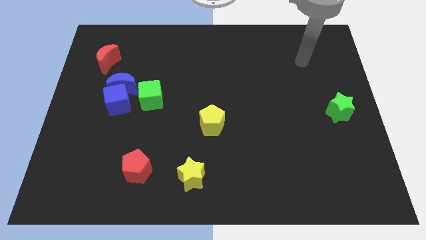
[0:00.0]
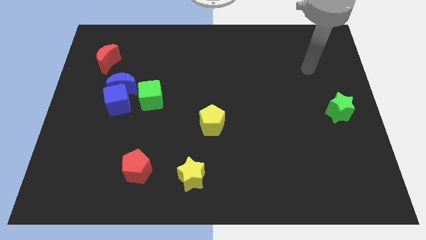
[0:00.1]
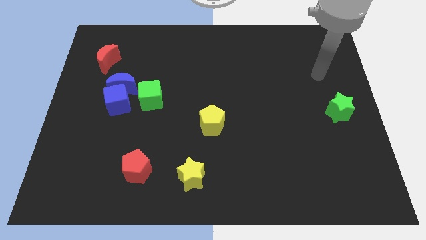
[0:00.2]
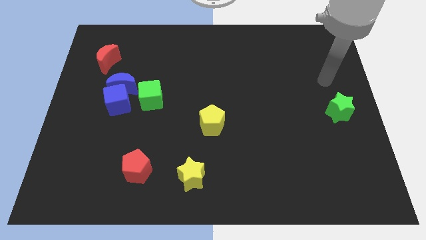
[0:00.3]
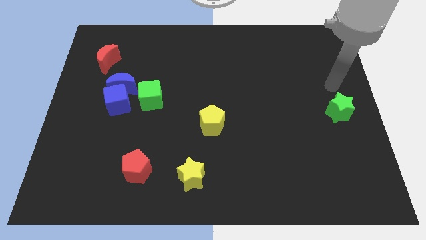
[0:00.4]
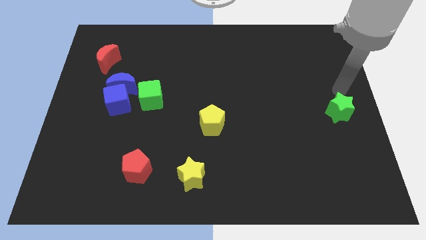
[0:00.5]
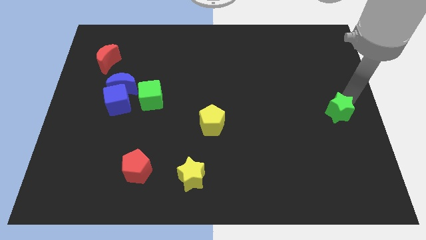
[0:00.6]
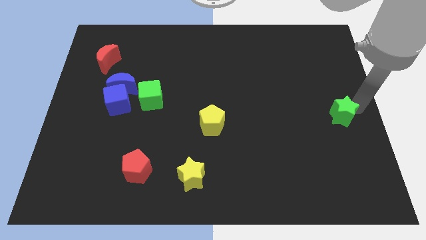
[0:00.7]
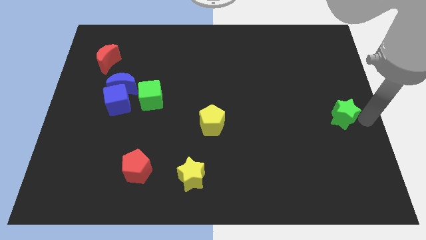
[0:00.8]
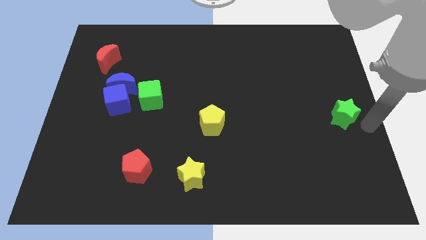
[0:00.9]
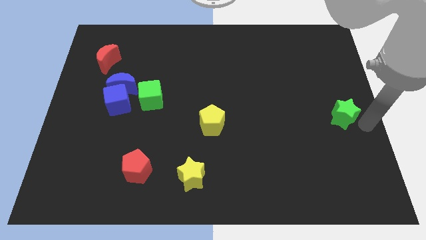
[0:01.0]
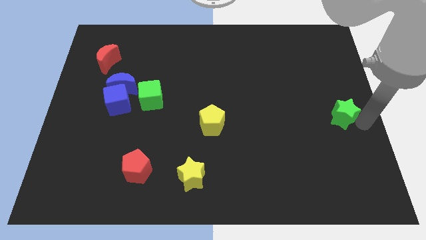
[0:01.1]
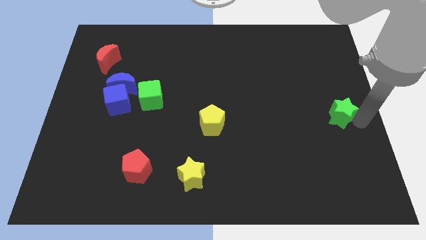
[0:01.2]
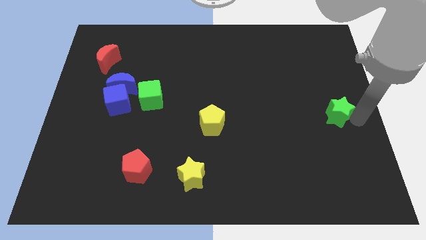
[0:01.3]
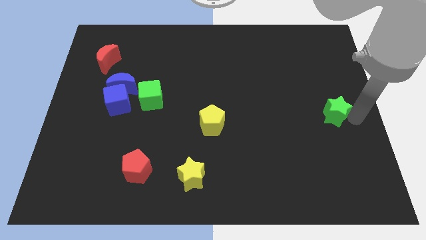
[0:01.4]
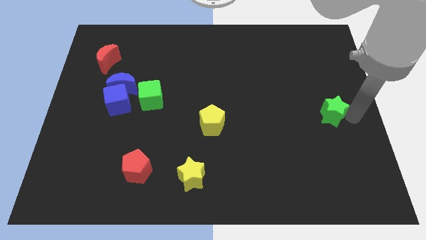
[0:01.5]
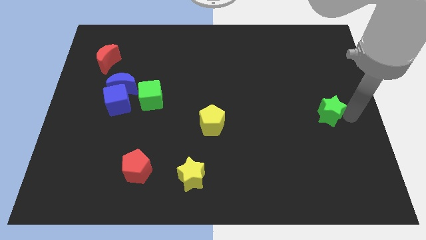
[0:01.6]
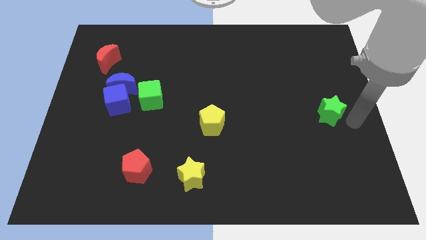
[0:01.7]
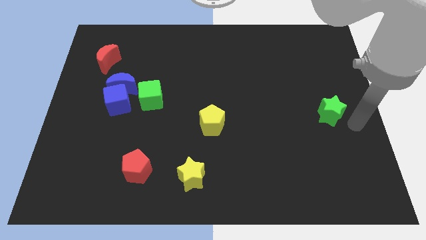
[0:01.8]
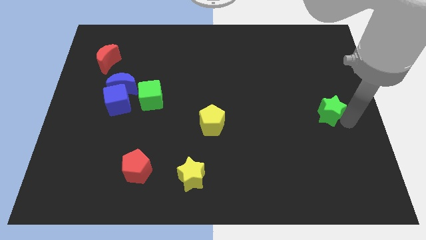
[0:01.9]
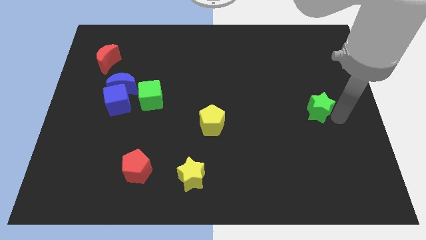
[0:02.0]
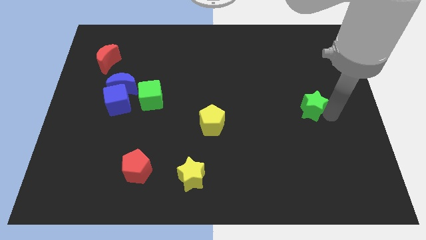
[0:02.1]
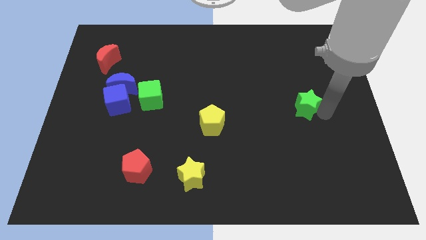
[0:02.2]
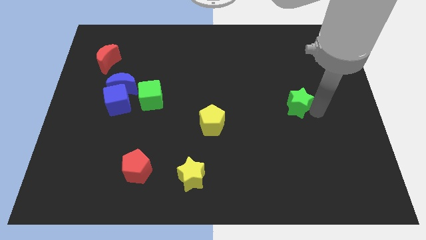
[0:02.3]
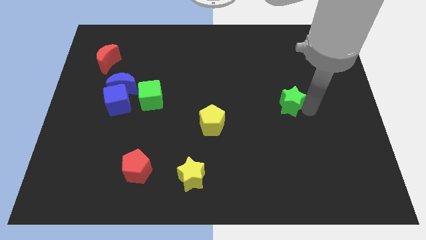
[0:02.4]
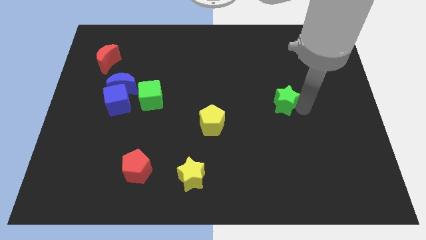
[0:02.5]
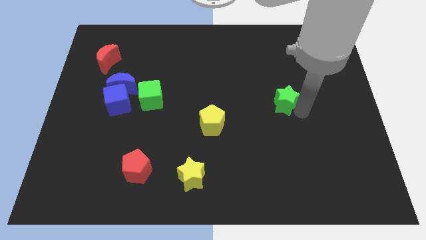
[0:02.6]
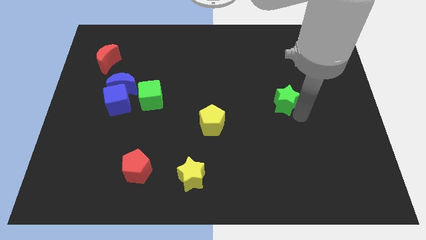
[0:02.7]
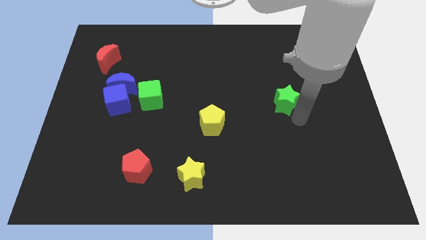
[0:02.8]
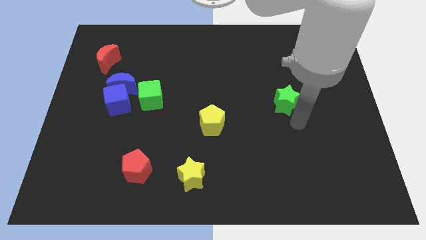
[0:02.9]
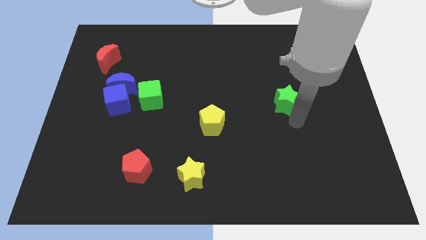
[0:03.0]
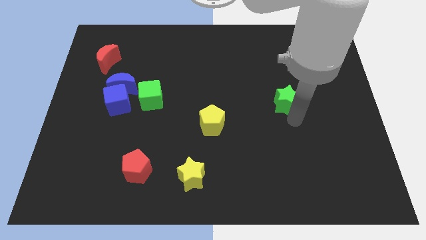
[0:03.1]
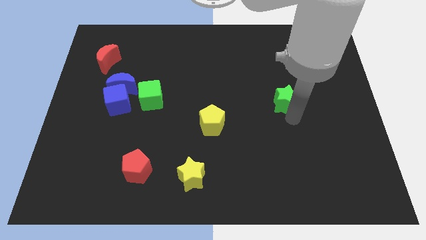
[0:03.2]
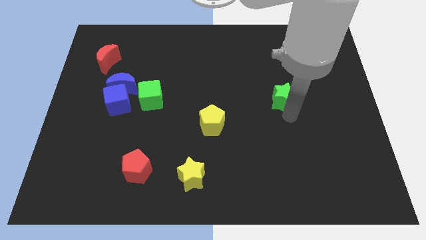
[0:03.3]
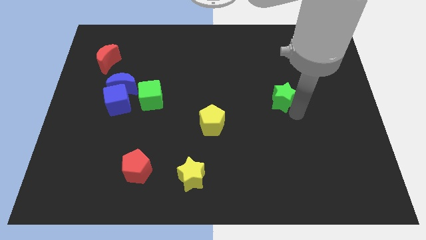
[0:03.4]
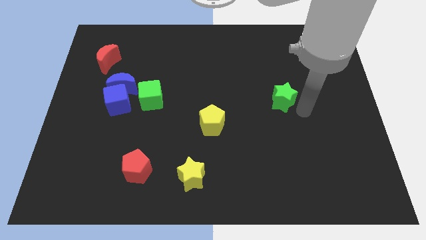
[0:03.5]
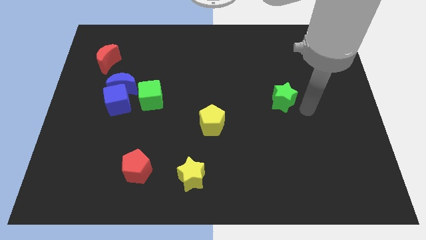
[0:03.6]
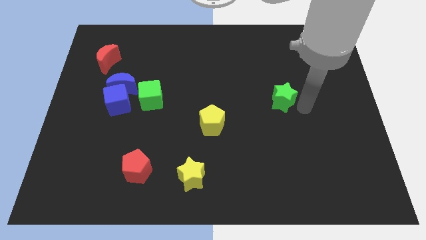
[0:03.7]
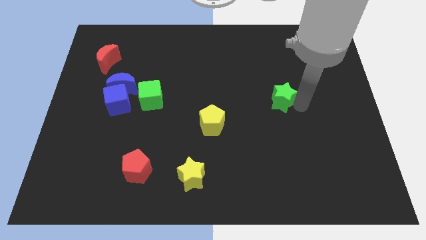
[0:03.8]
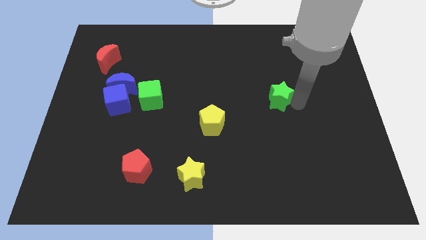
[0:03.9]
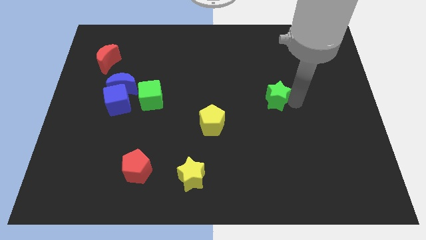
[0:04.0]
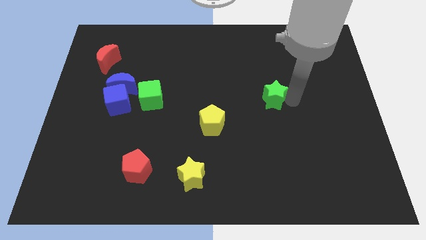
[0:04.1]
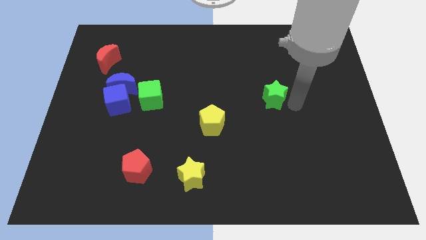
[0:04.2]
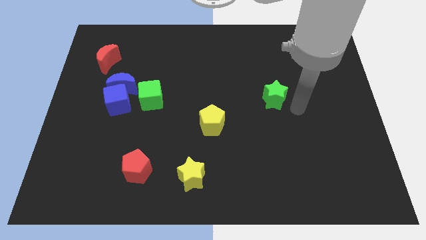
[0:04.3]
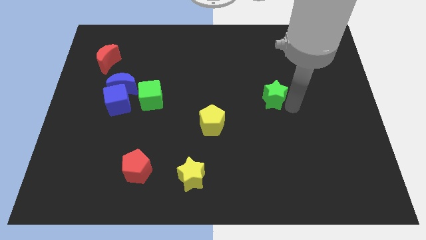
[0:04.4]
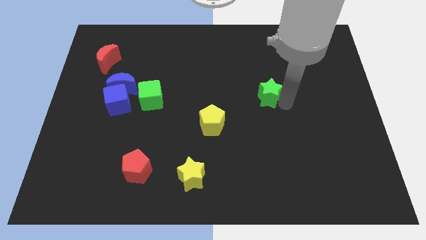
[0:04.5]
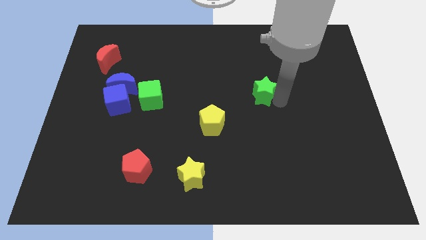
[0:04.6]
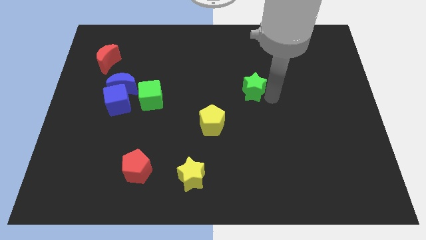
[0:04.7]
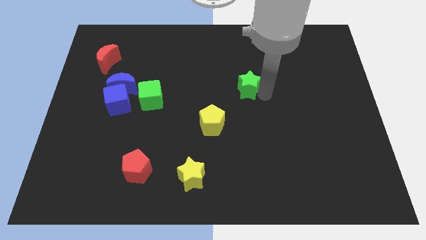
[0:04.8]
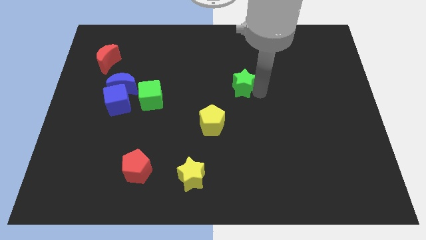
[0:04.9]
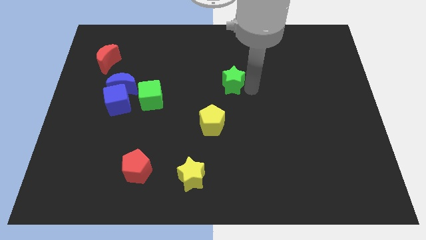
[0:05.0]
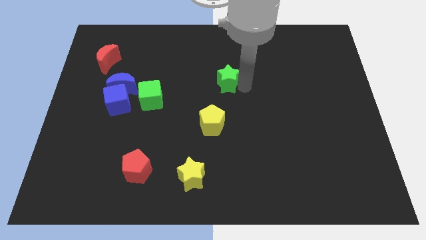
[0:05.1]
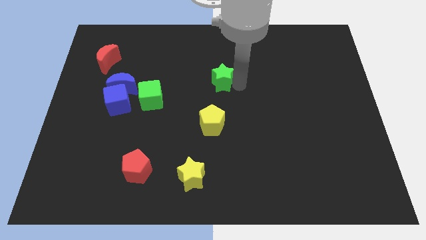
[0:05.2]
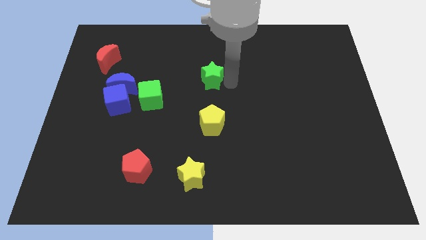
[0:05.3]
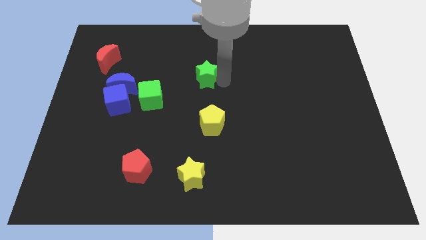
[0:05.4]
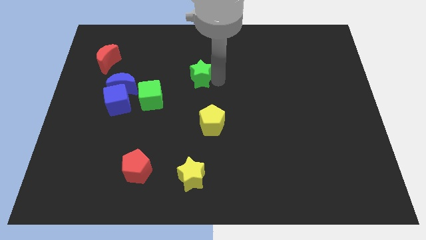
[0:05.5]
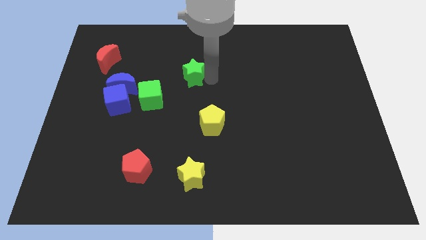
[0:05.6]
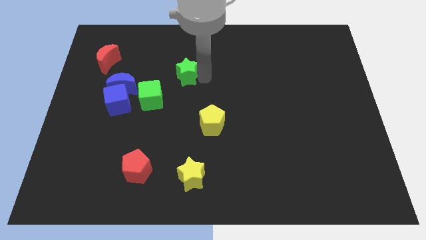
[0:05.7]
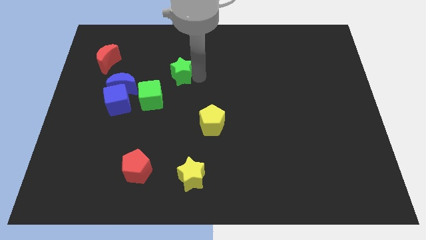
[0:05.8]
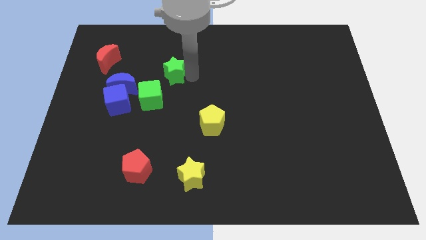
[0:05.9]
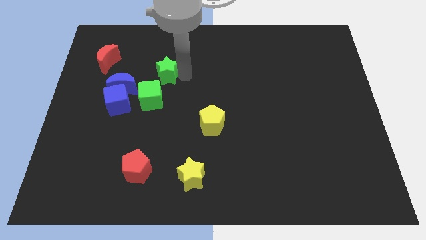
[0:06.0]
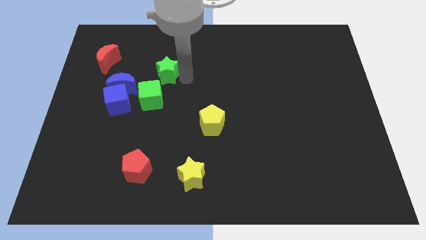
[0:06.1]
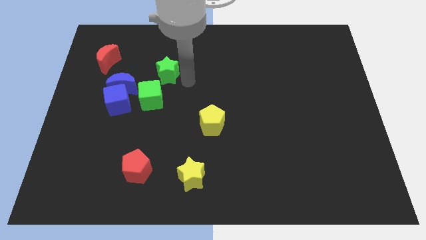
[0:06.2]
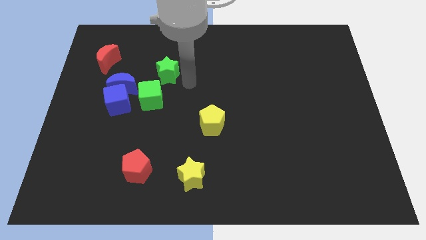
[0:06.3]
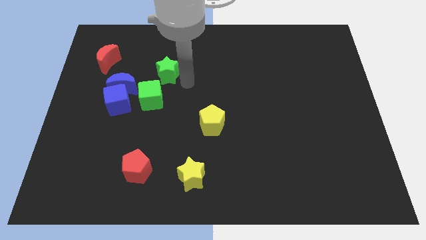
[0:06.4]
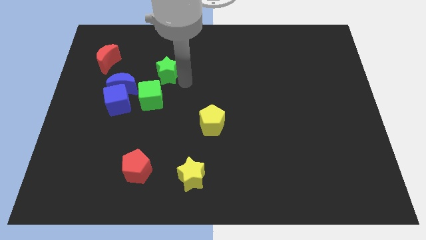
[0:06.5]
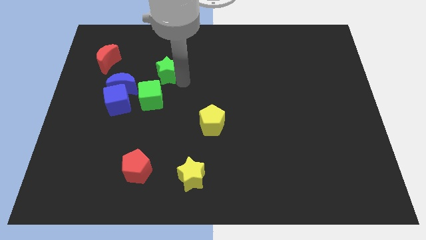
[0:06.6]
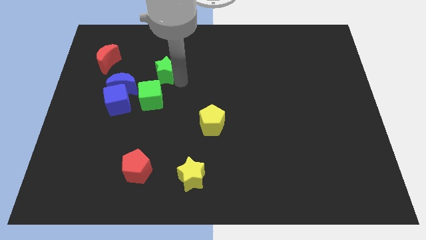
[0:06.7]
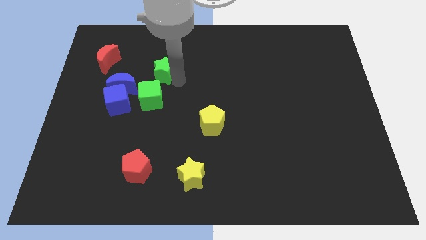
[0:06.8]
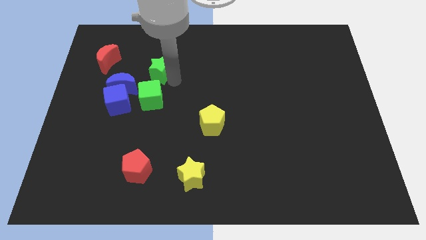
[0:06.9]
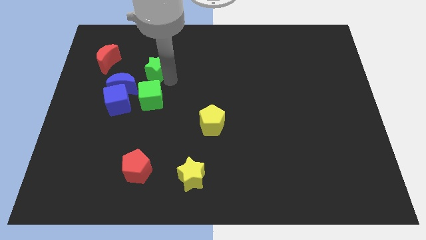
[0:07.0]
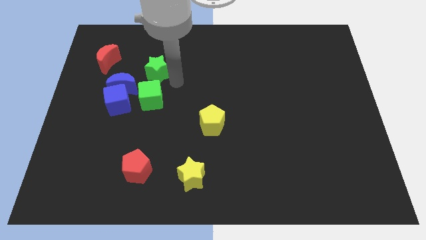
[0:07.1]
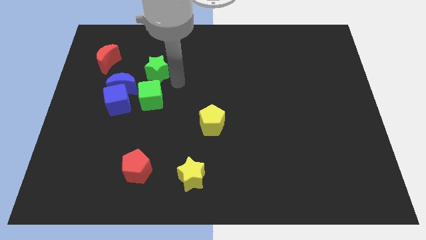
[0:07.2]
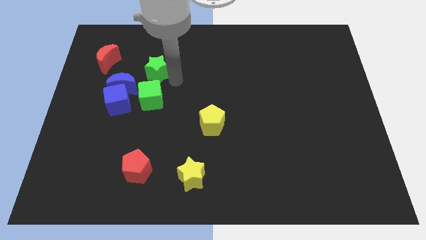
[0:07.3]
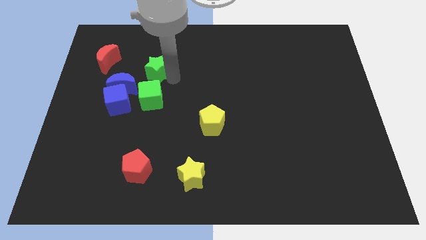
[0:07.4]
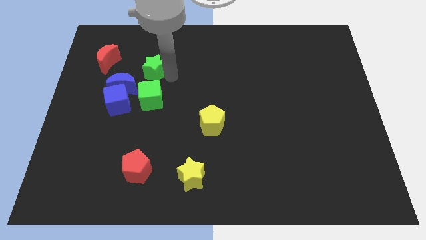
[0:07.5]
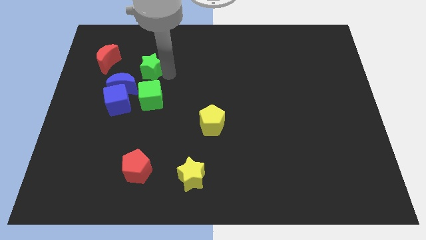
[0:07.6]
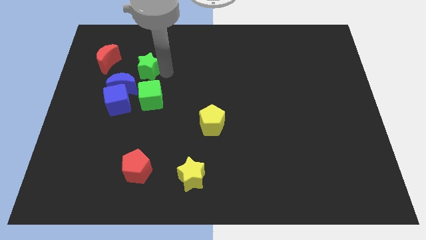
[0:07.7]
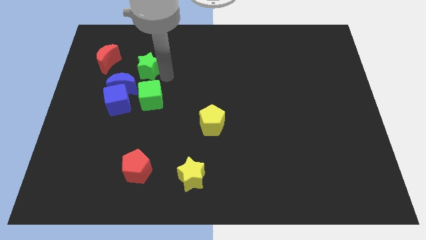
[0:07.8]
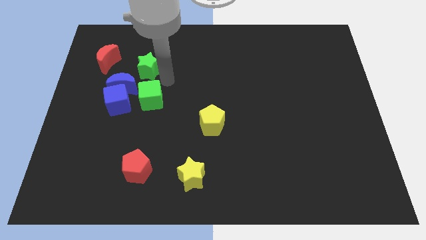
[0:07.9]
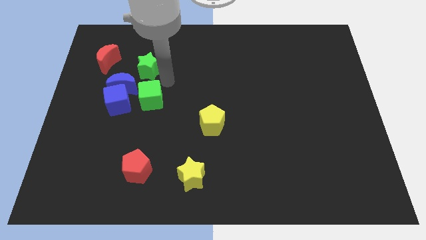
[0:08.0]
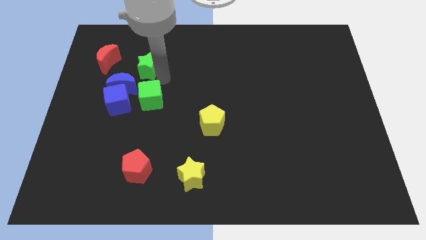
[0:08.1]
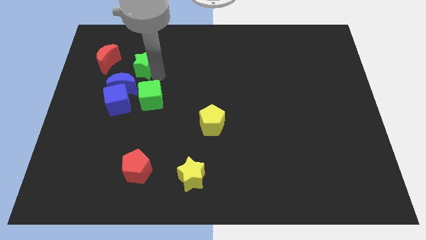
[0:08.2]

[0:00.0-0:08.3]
slide the green star to the top of the blue moon
